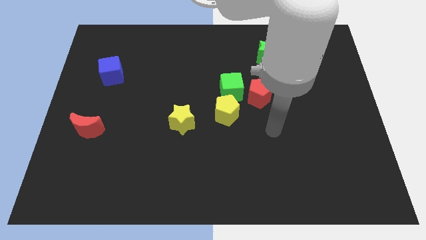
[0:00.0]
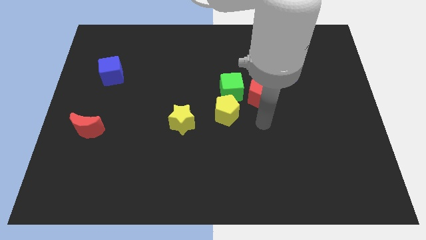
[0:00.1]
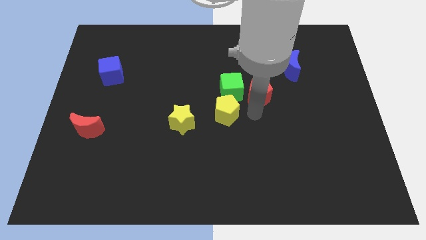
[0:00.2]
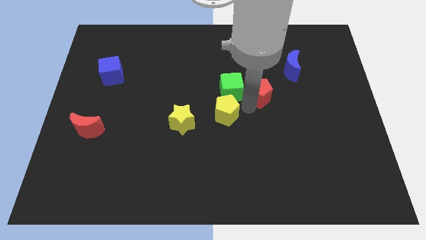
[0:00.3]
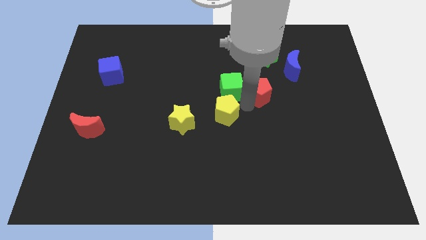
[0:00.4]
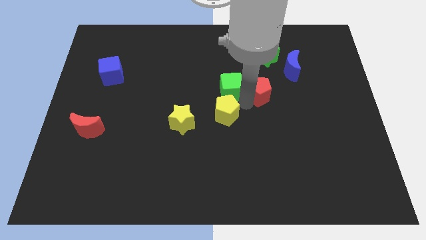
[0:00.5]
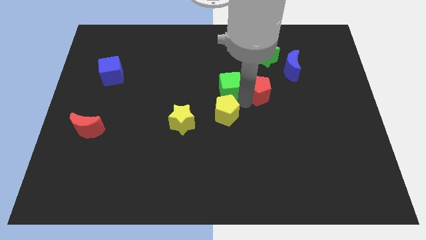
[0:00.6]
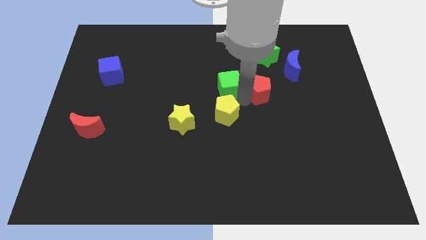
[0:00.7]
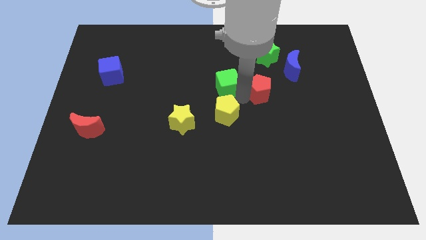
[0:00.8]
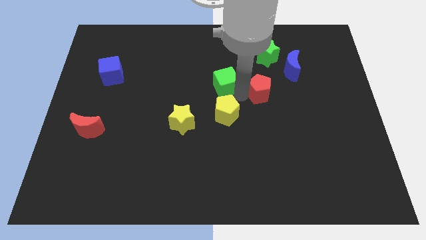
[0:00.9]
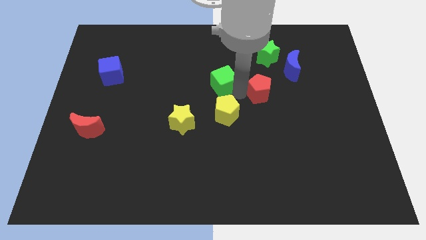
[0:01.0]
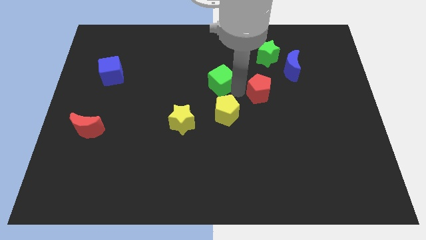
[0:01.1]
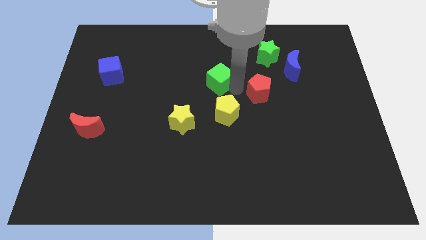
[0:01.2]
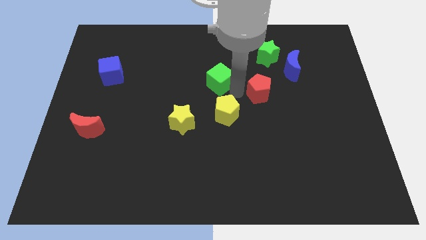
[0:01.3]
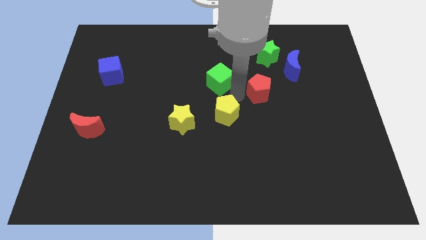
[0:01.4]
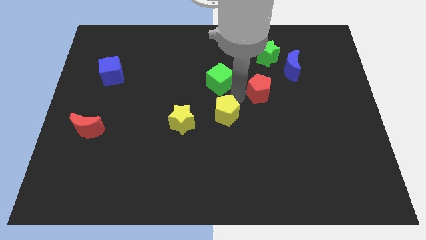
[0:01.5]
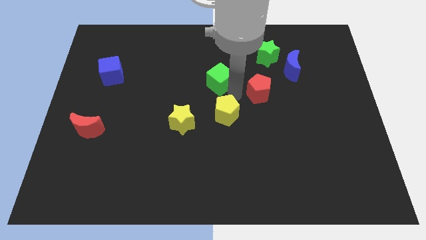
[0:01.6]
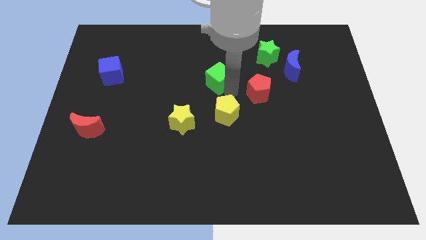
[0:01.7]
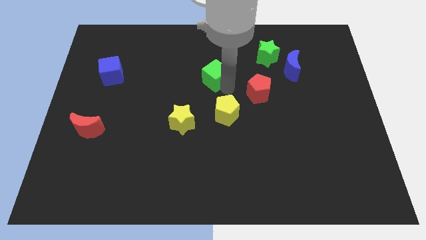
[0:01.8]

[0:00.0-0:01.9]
move the green cube away from the red pentagon and yellow pentagon

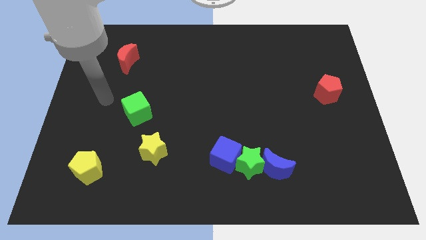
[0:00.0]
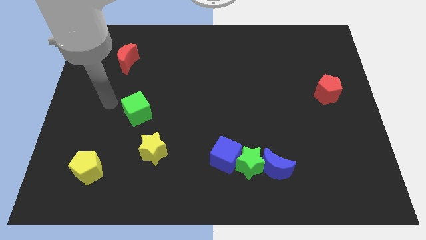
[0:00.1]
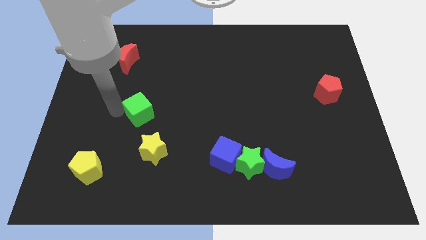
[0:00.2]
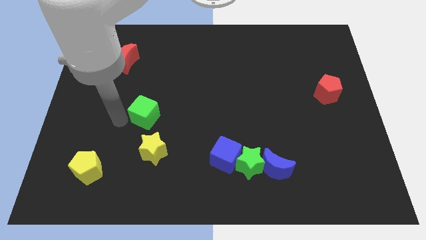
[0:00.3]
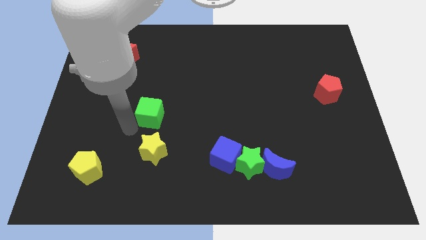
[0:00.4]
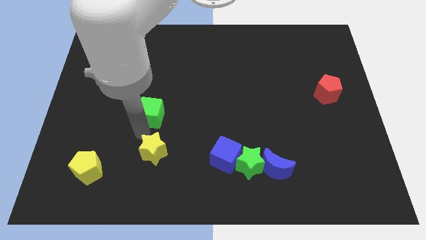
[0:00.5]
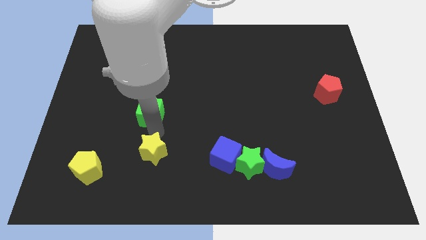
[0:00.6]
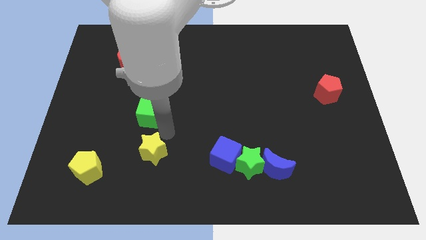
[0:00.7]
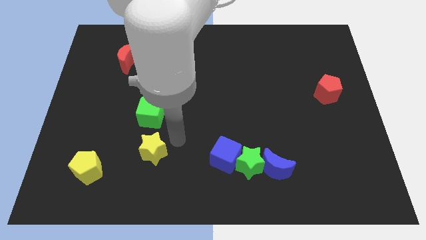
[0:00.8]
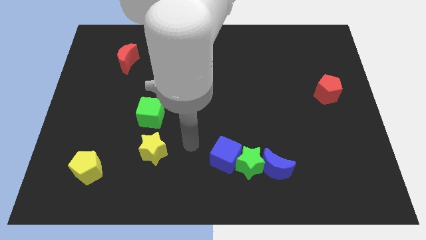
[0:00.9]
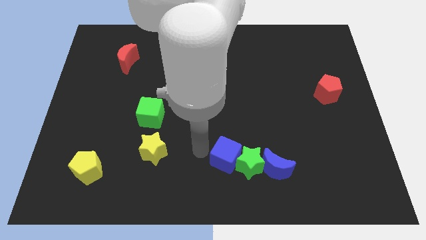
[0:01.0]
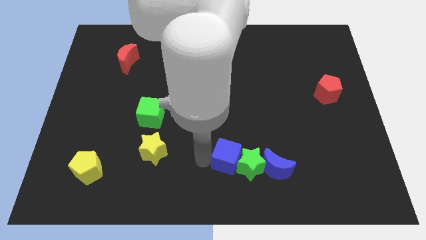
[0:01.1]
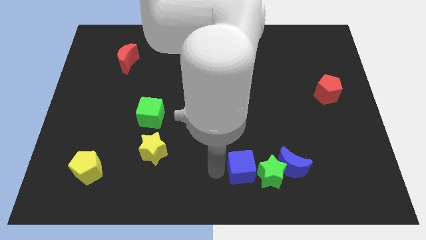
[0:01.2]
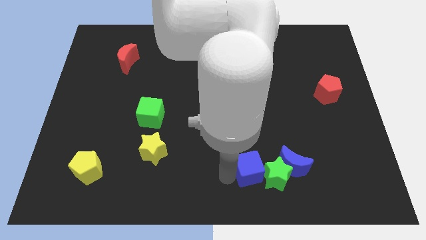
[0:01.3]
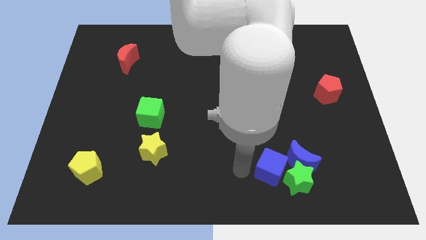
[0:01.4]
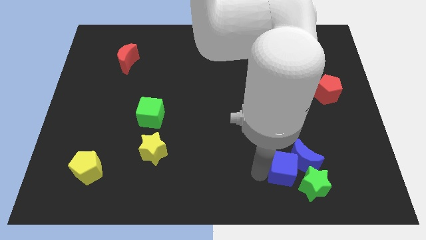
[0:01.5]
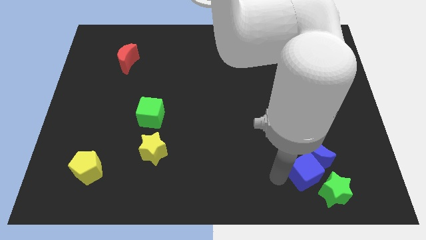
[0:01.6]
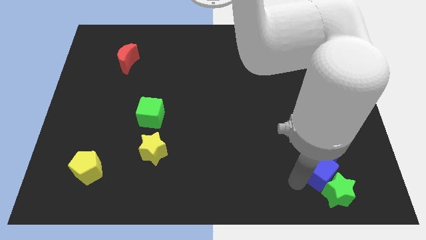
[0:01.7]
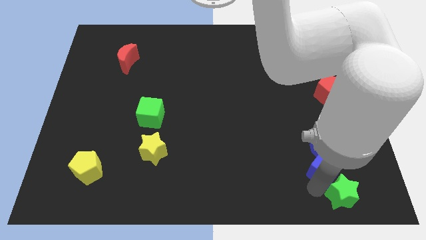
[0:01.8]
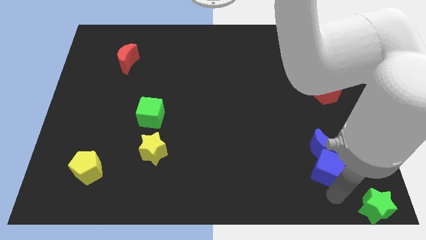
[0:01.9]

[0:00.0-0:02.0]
separate the blue cube from the green star

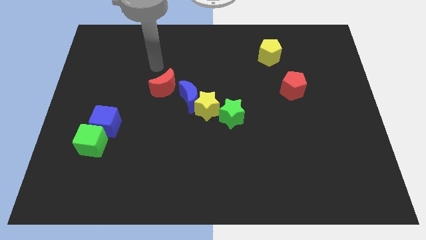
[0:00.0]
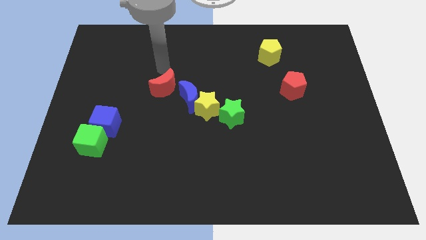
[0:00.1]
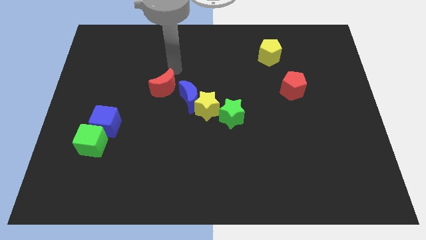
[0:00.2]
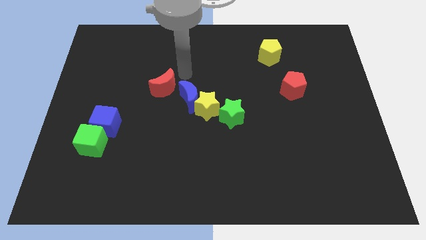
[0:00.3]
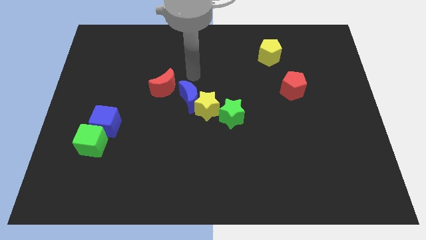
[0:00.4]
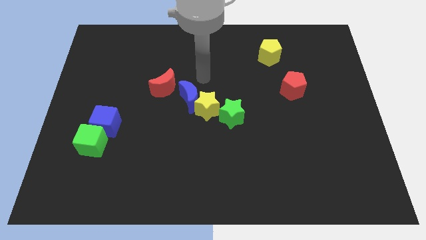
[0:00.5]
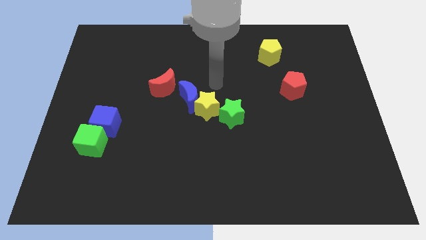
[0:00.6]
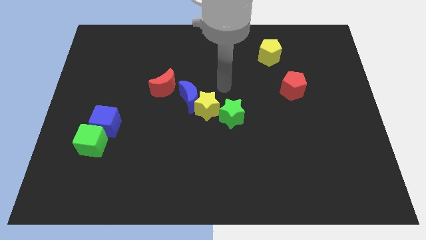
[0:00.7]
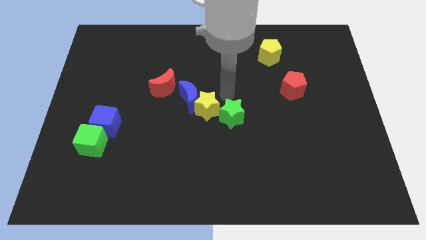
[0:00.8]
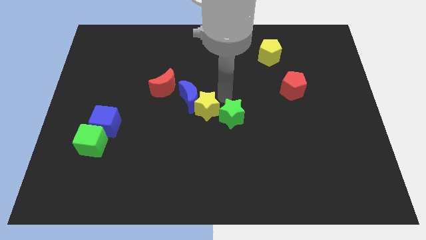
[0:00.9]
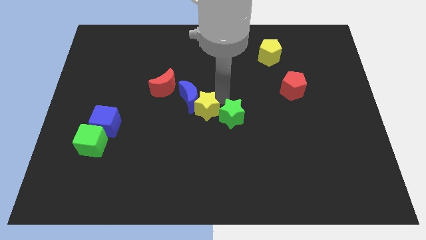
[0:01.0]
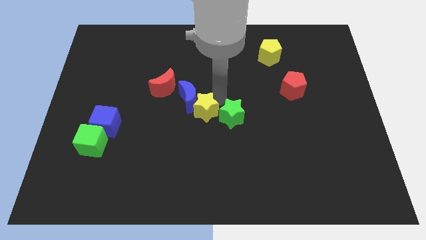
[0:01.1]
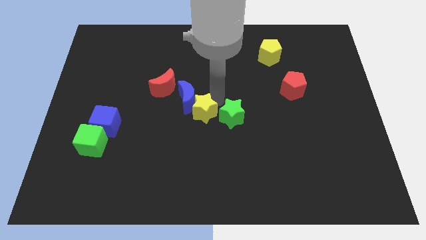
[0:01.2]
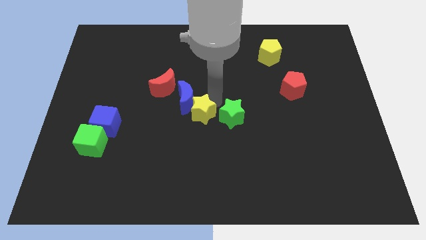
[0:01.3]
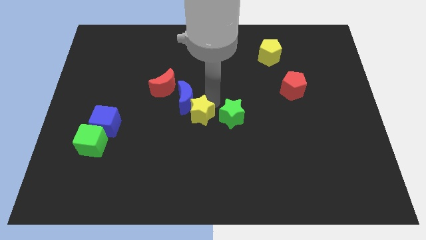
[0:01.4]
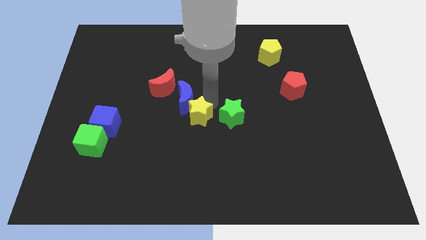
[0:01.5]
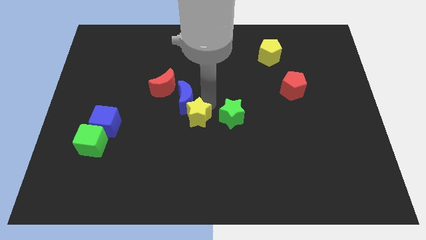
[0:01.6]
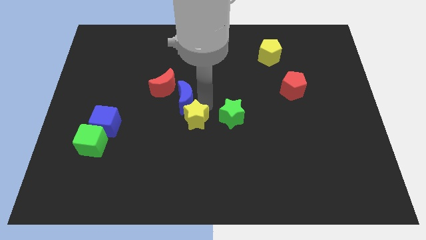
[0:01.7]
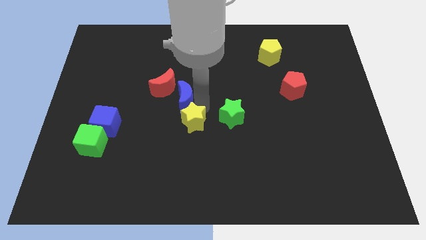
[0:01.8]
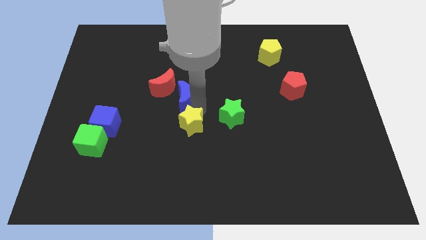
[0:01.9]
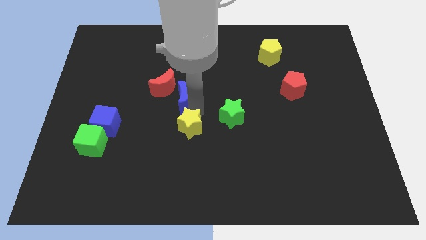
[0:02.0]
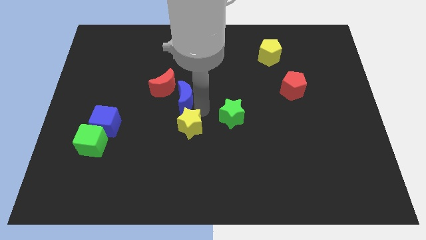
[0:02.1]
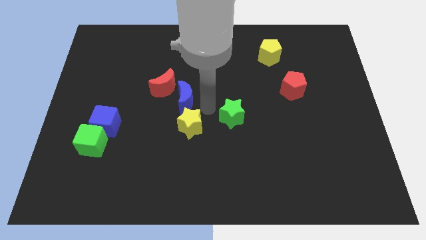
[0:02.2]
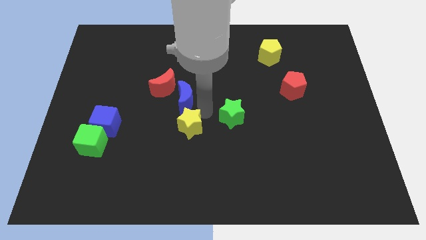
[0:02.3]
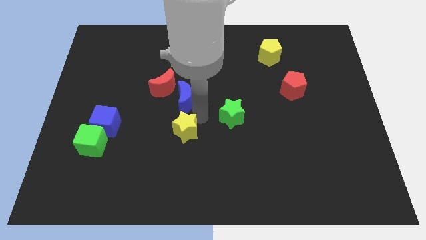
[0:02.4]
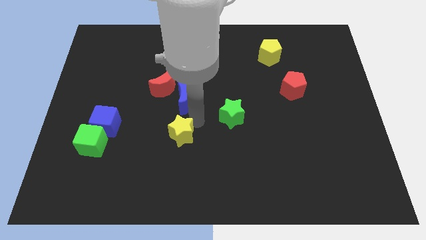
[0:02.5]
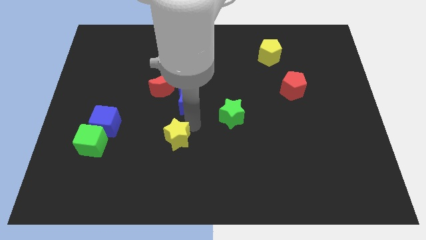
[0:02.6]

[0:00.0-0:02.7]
pull the yellow star apart from the blue moon and green star

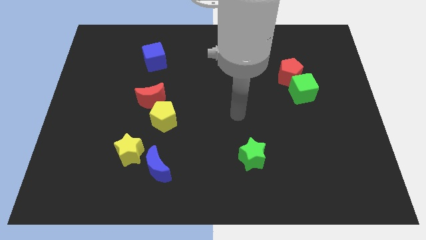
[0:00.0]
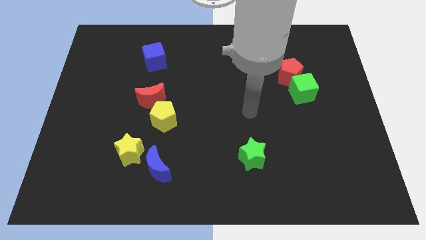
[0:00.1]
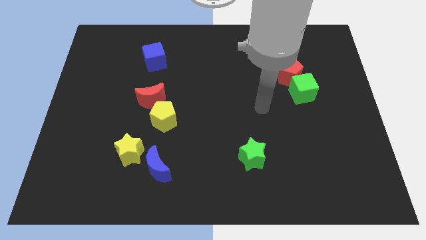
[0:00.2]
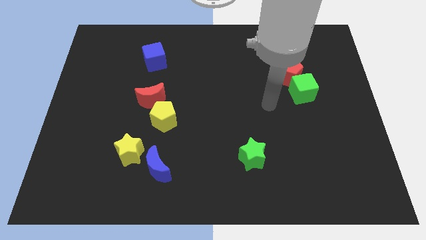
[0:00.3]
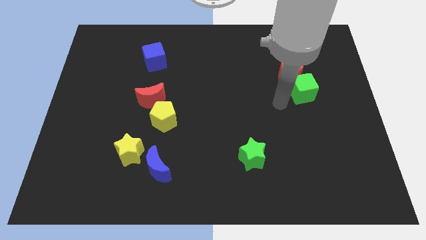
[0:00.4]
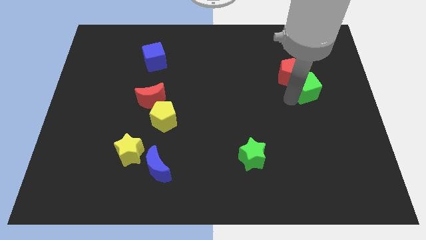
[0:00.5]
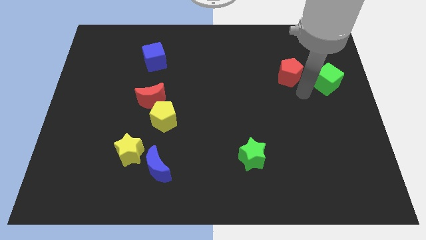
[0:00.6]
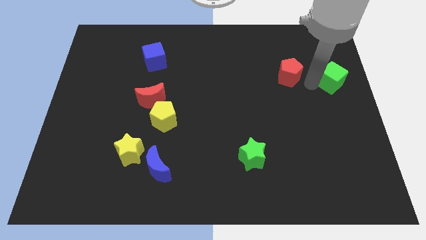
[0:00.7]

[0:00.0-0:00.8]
separate the red pentagon from the green cube

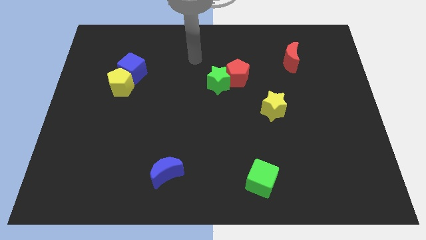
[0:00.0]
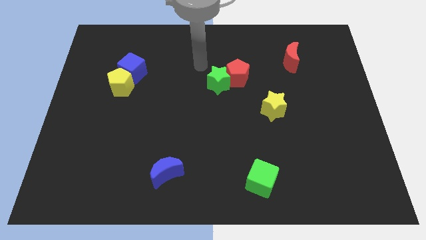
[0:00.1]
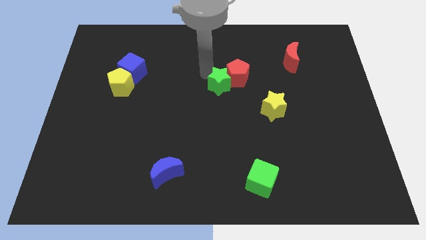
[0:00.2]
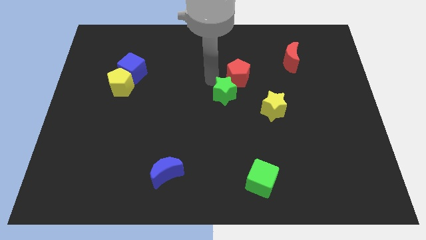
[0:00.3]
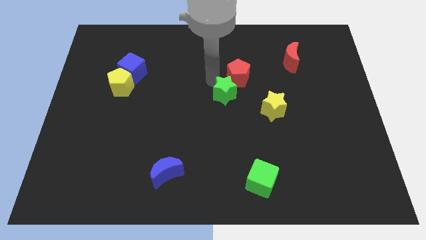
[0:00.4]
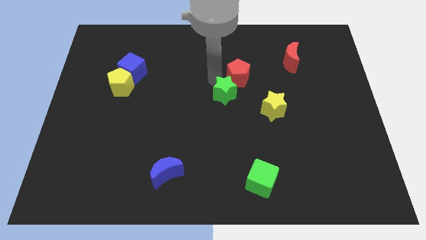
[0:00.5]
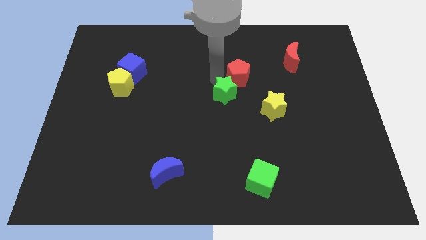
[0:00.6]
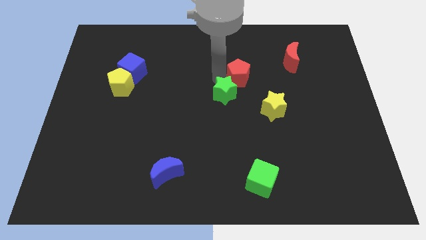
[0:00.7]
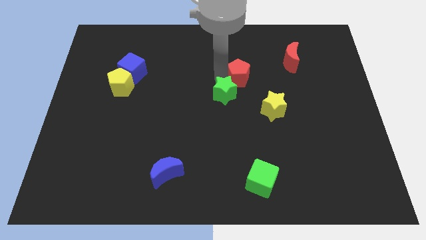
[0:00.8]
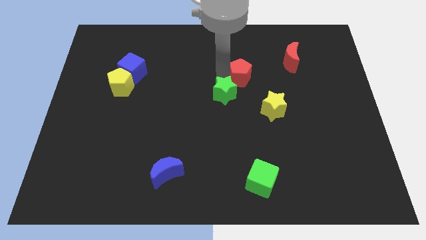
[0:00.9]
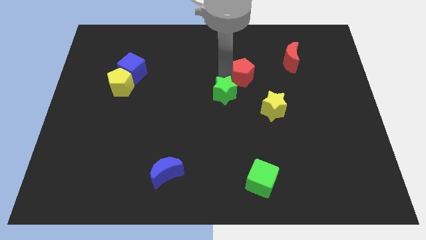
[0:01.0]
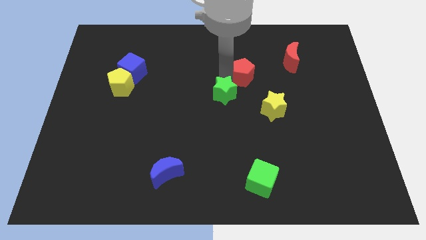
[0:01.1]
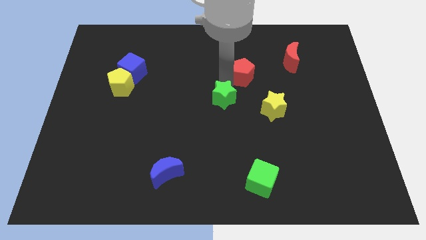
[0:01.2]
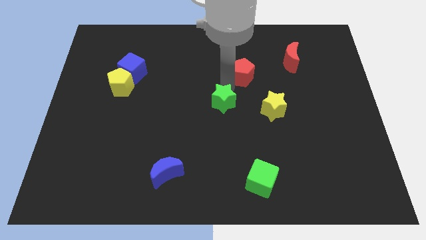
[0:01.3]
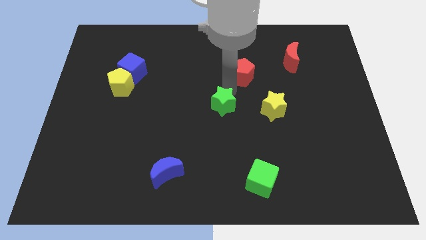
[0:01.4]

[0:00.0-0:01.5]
pull the red pentagon apart from the green star

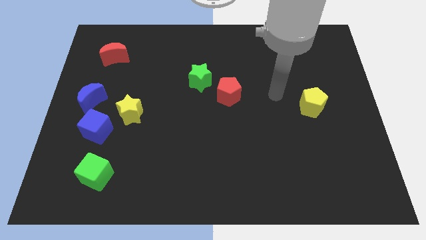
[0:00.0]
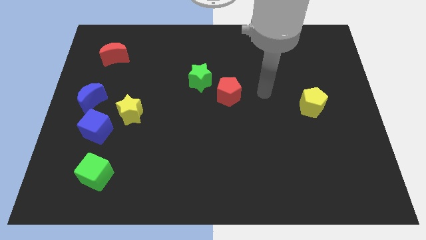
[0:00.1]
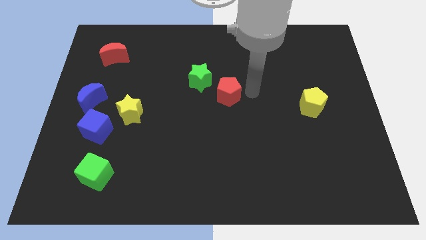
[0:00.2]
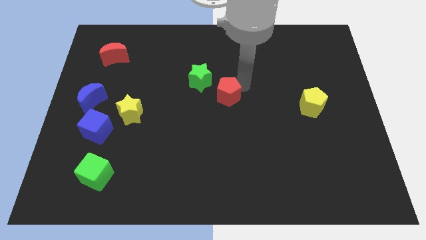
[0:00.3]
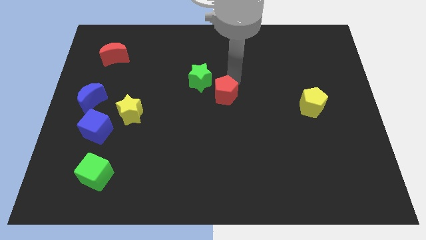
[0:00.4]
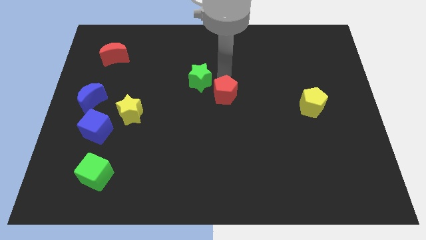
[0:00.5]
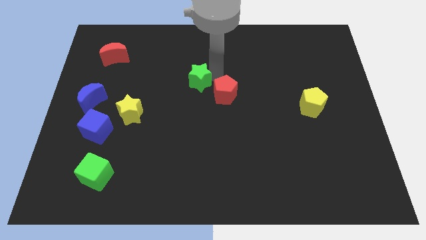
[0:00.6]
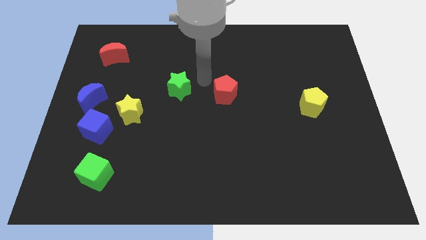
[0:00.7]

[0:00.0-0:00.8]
separate the red pentagon from the green star
